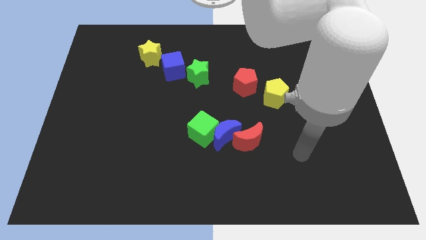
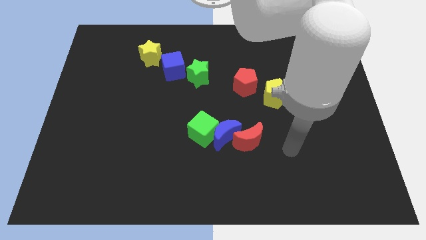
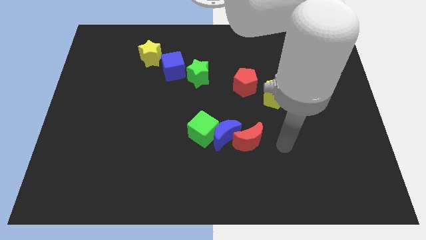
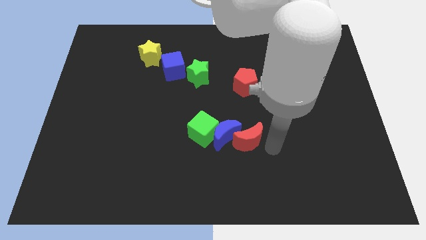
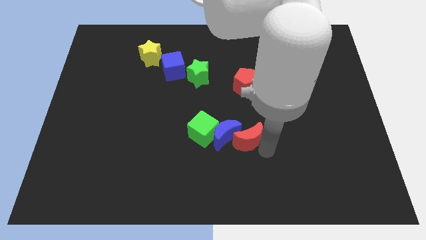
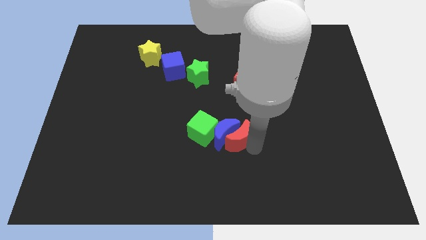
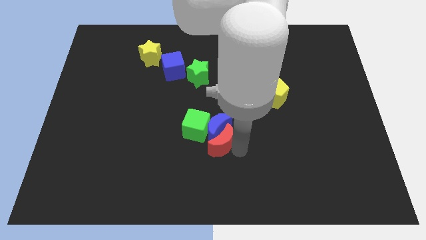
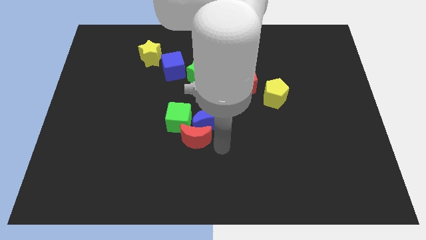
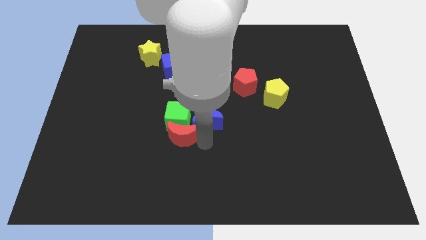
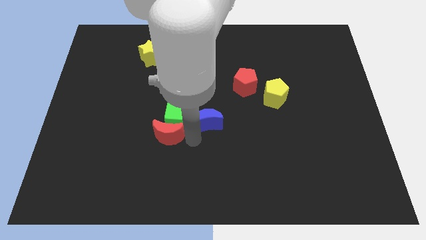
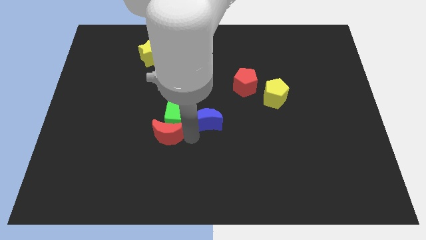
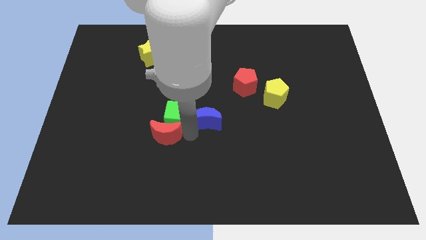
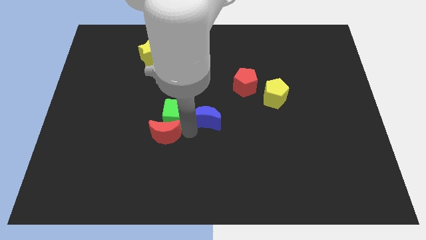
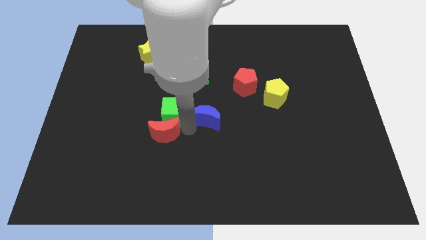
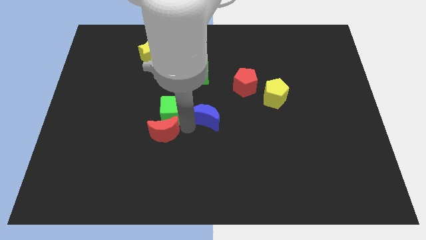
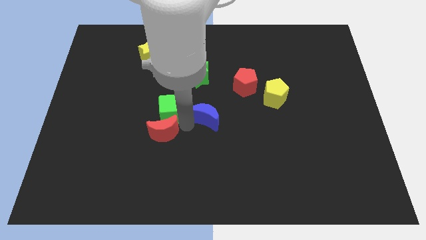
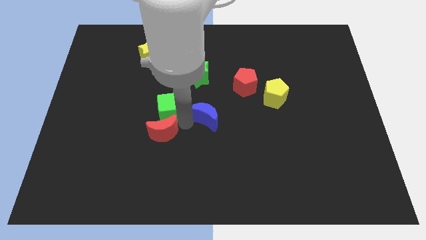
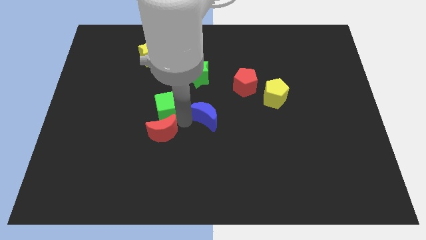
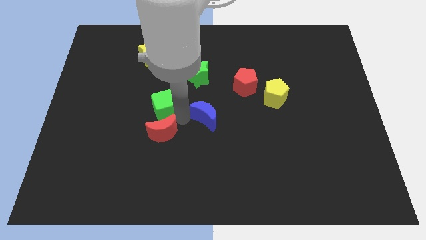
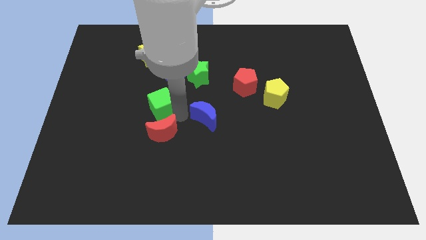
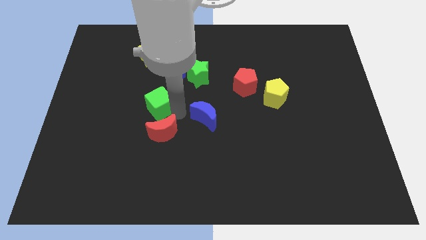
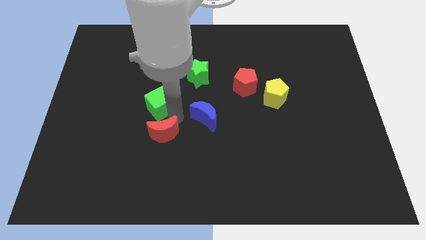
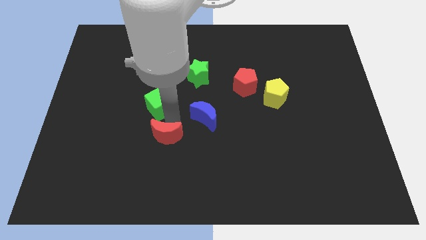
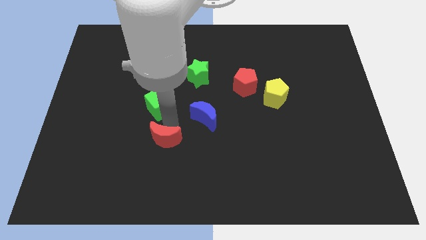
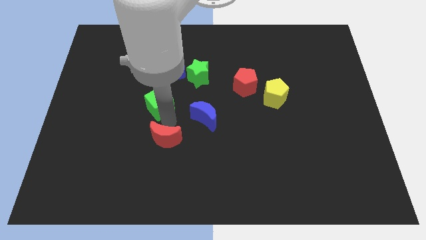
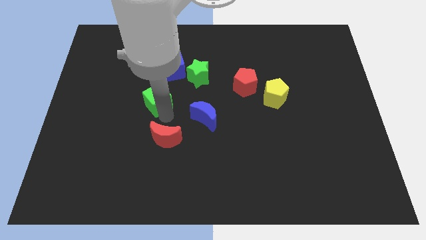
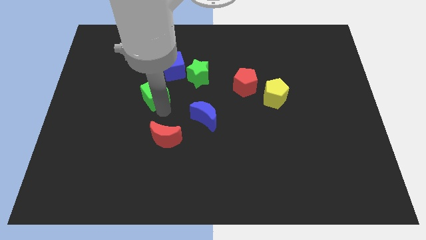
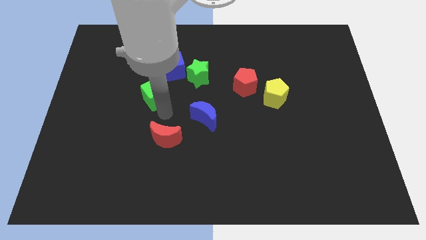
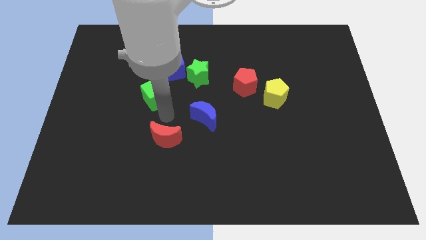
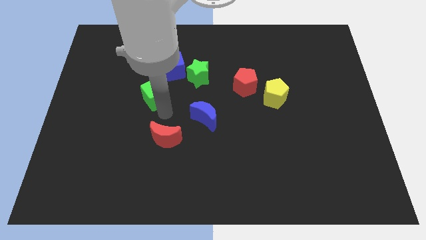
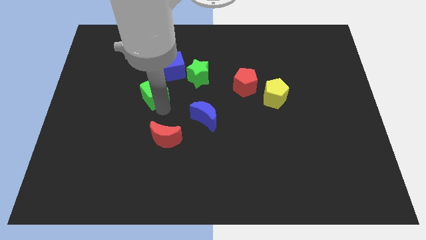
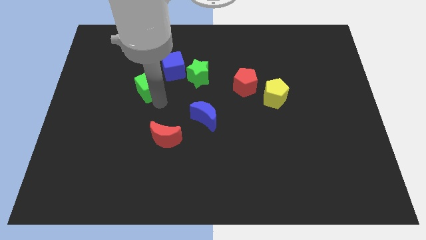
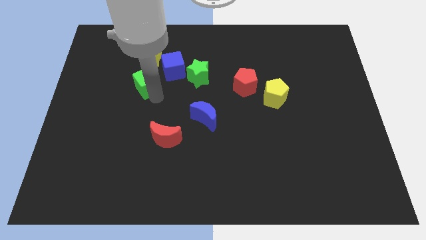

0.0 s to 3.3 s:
slide the green cube upwards and then to the left

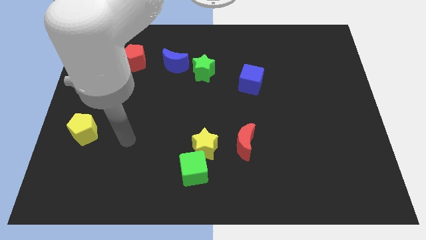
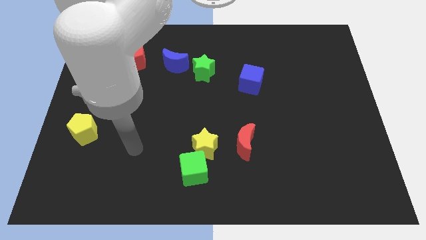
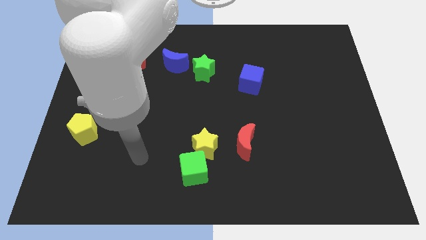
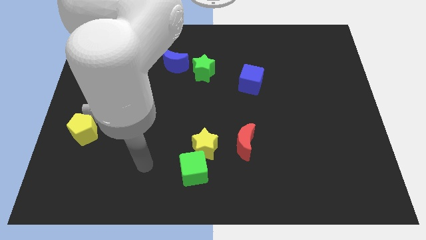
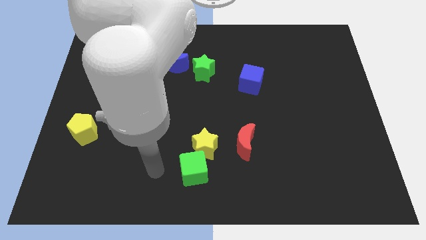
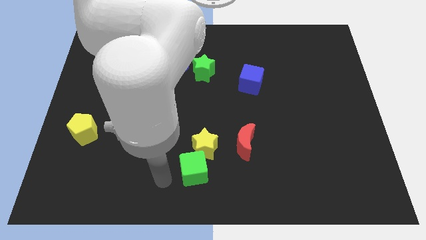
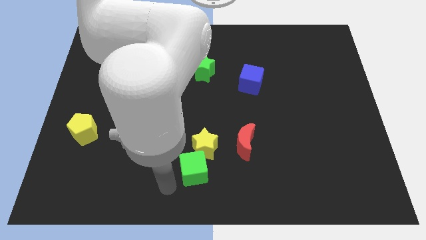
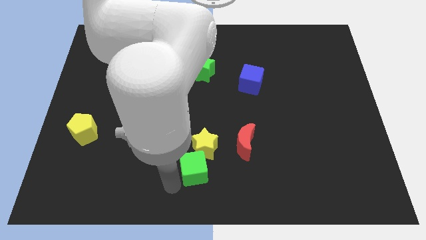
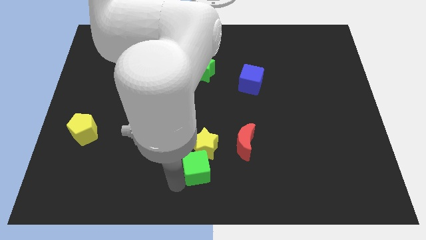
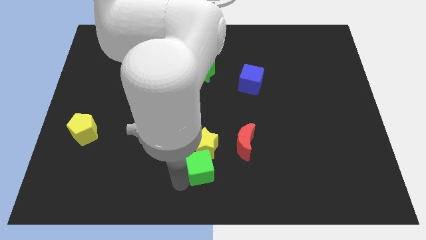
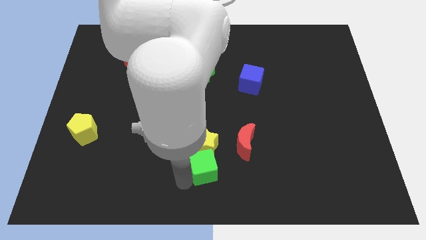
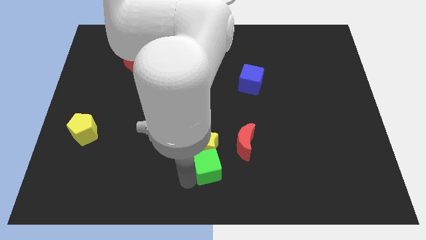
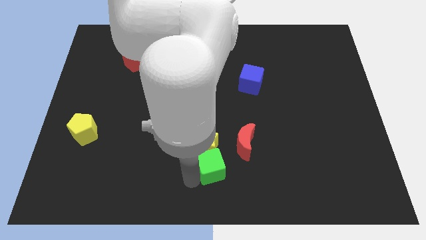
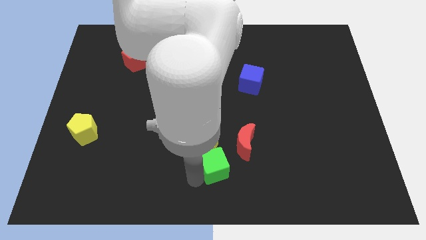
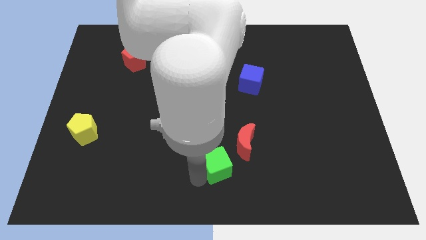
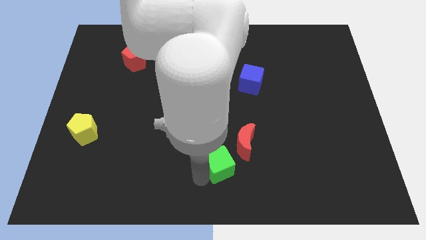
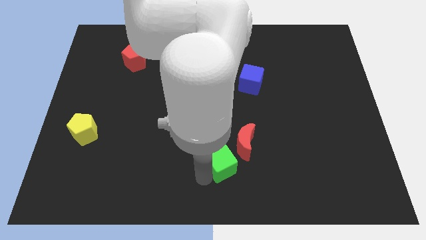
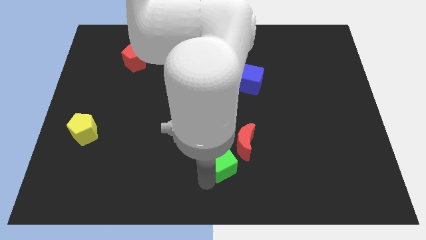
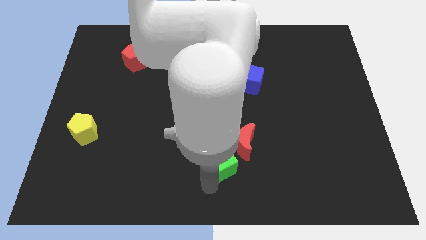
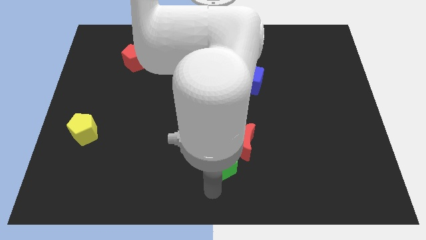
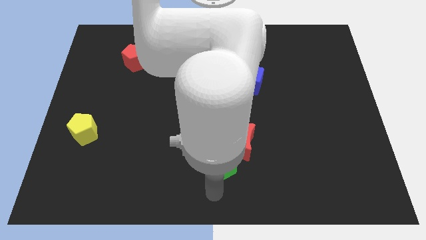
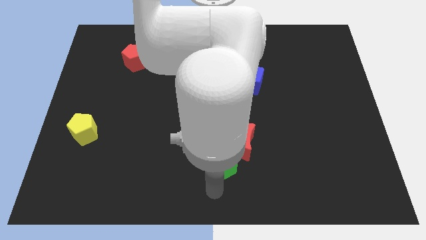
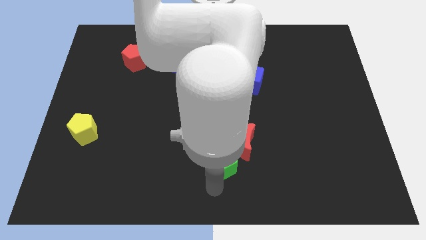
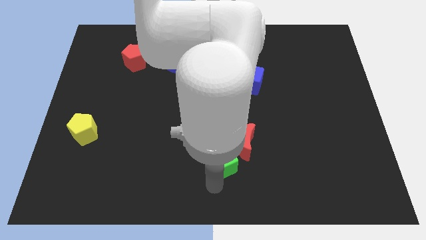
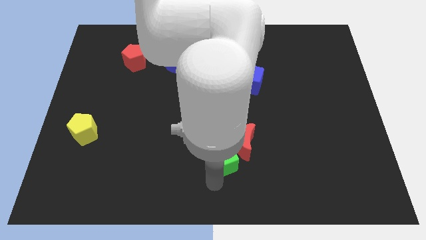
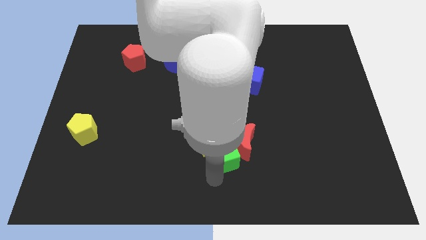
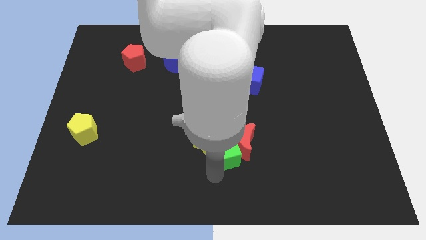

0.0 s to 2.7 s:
slide the green cube upwards and to the right slightly

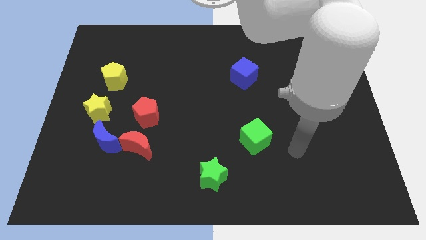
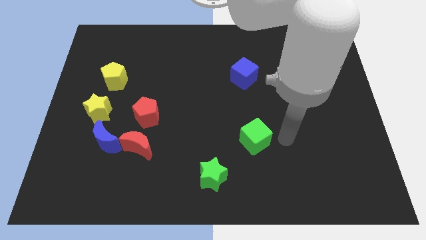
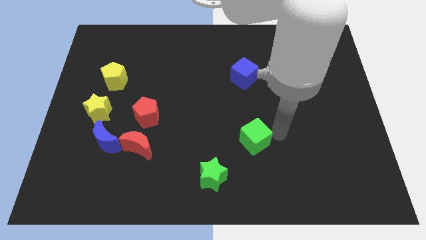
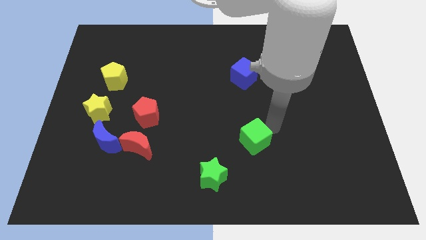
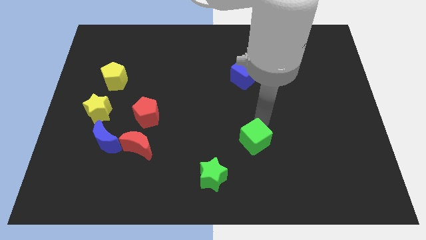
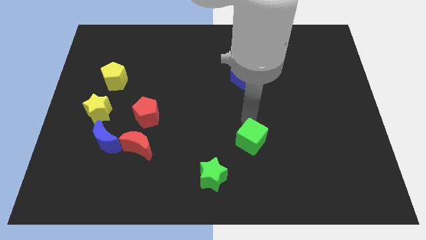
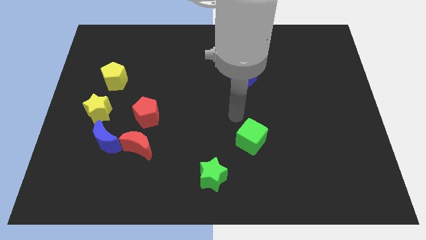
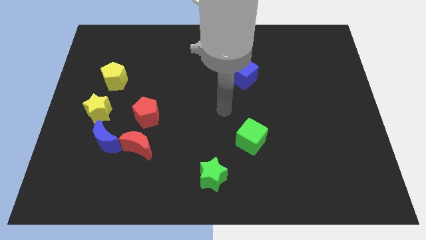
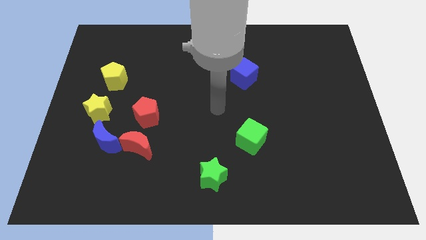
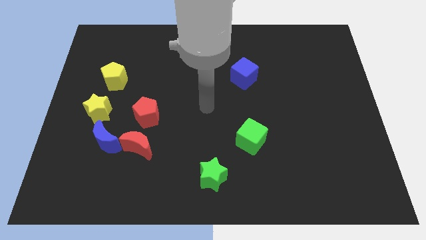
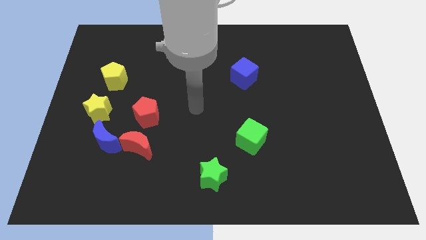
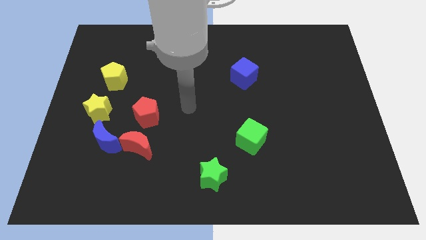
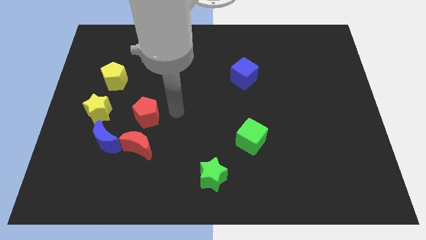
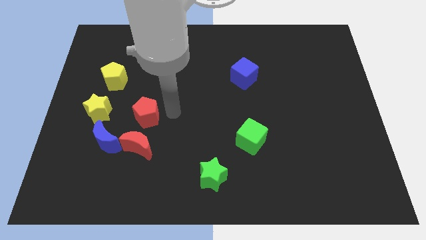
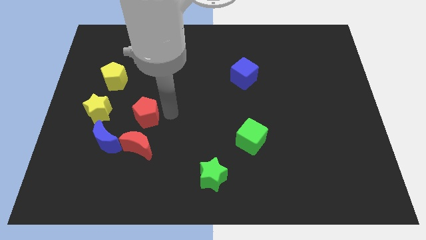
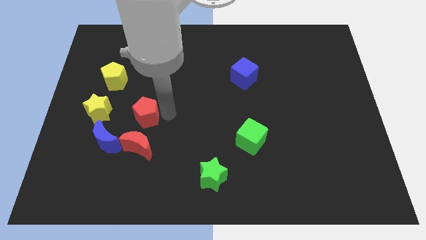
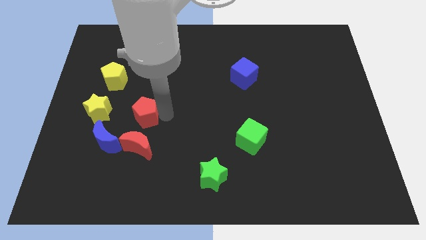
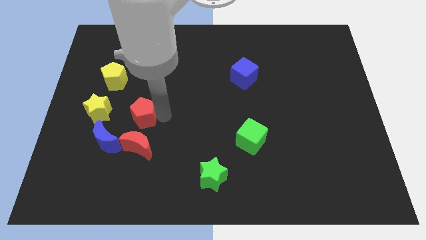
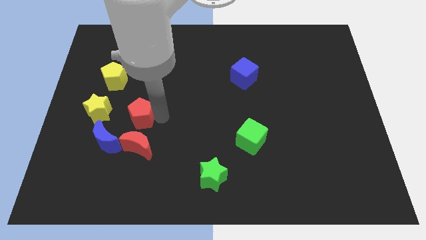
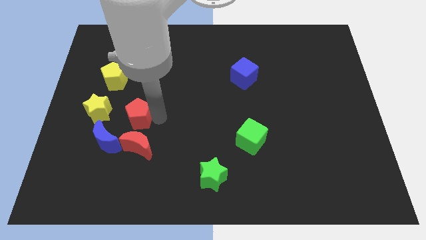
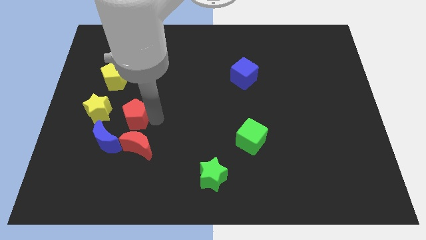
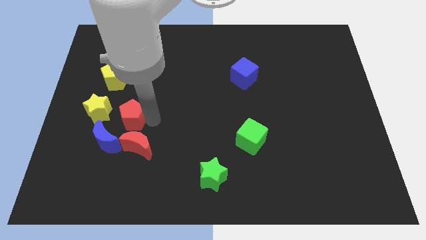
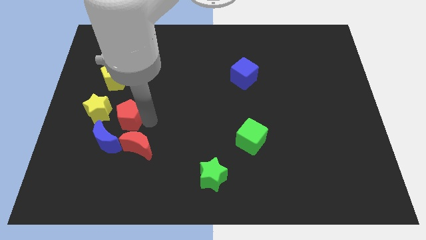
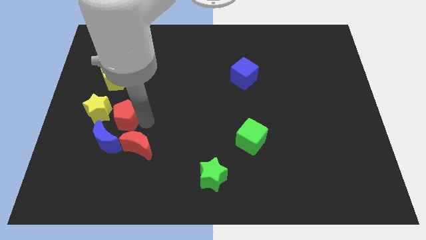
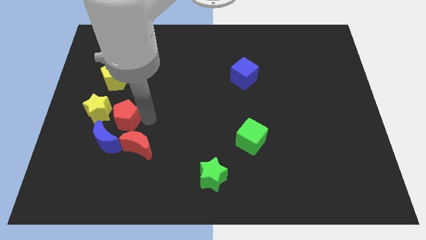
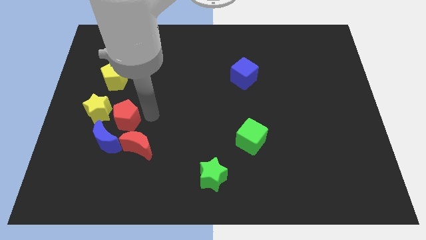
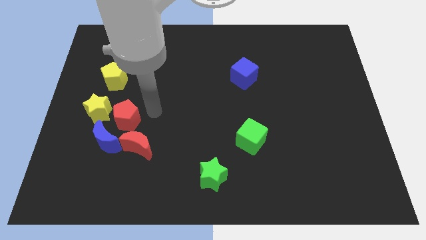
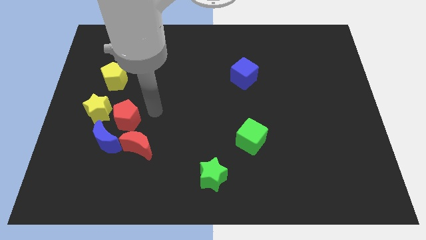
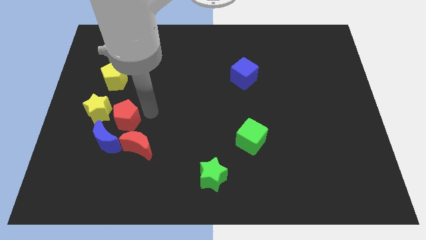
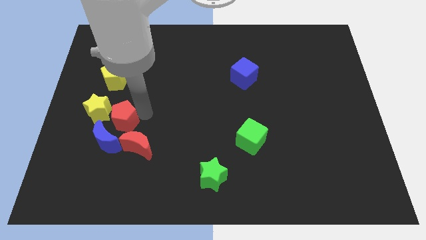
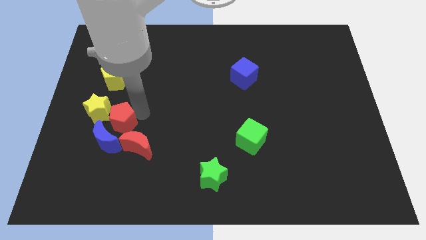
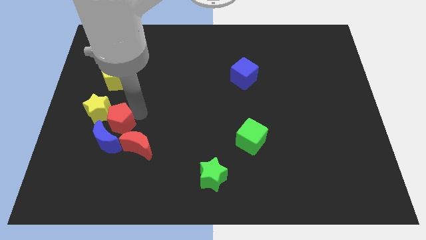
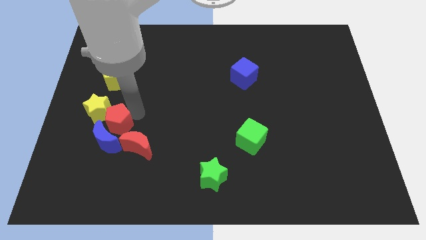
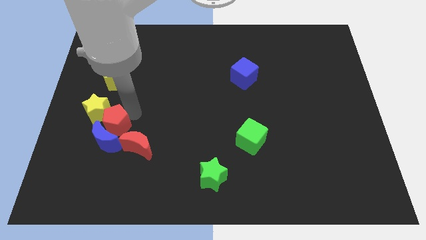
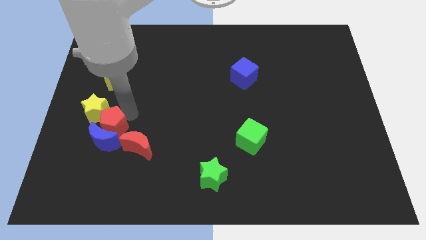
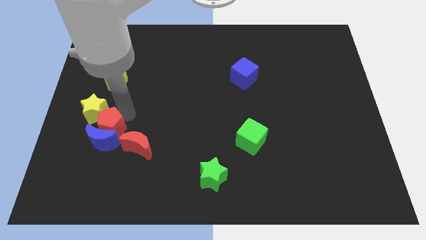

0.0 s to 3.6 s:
slide the red pentagon somewhat downwards and to the left diagonally
